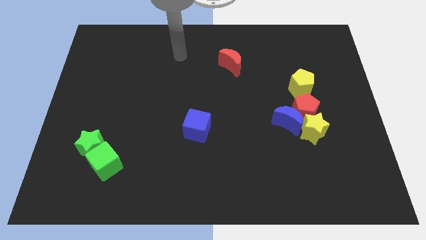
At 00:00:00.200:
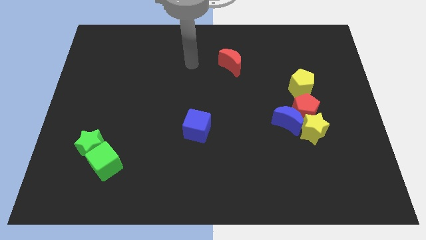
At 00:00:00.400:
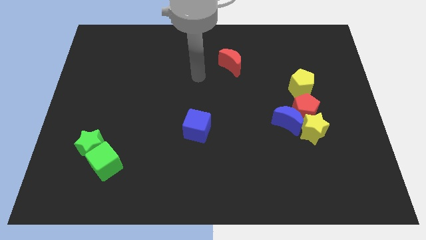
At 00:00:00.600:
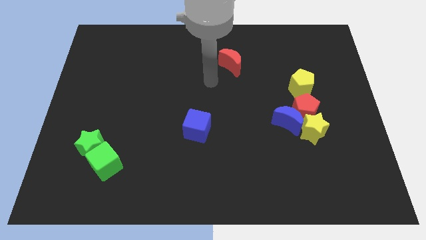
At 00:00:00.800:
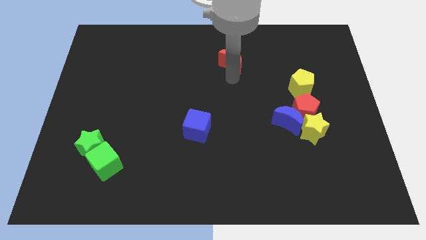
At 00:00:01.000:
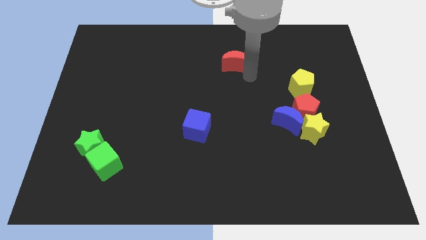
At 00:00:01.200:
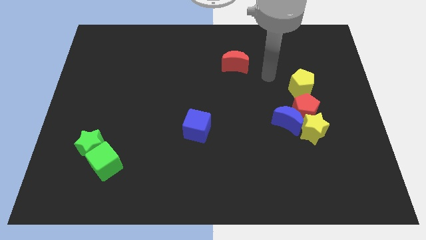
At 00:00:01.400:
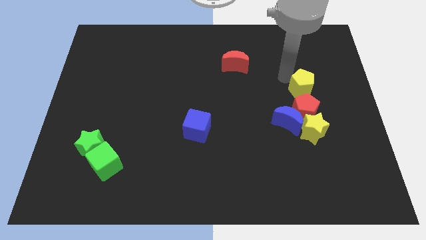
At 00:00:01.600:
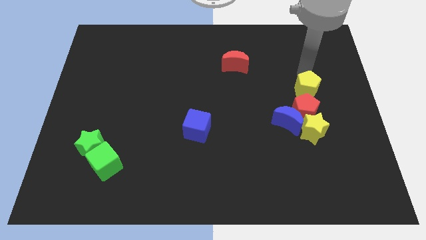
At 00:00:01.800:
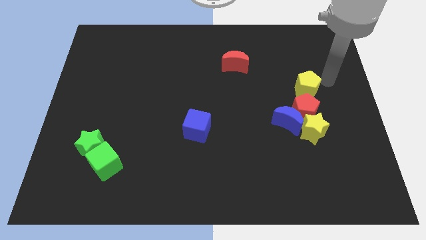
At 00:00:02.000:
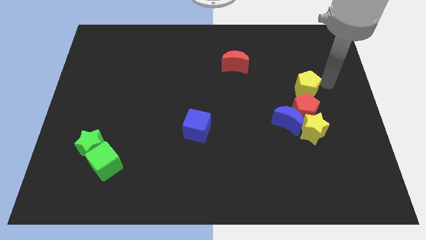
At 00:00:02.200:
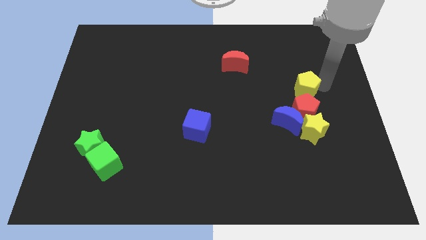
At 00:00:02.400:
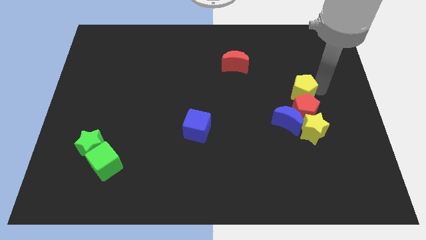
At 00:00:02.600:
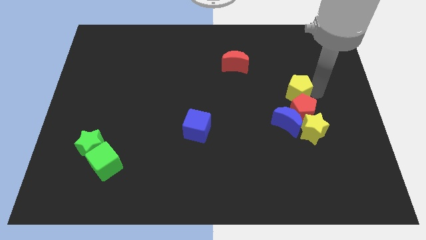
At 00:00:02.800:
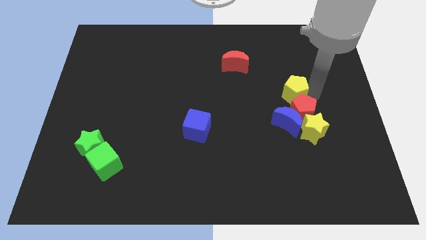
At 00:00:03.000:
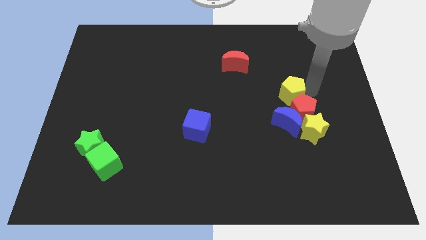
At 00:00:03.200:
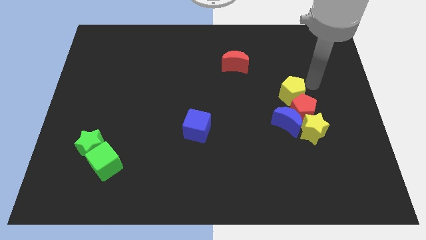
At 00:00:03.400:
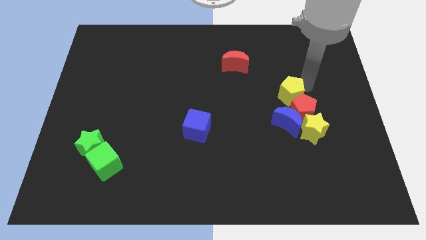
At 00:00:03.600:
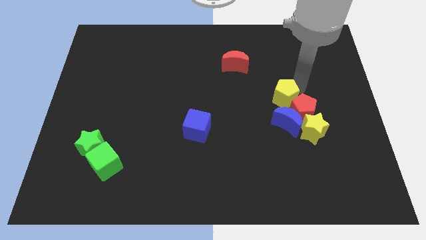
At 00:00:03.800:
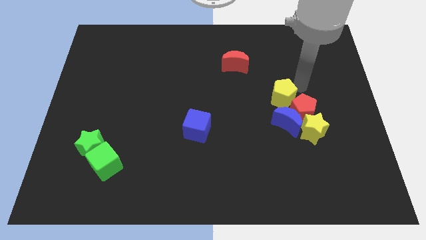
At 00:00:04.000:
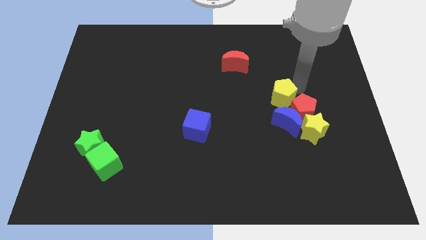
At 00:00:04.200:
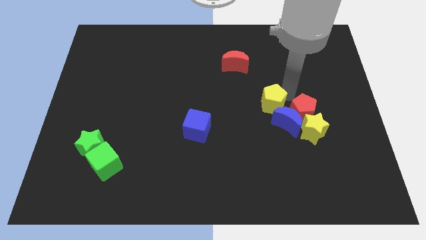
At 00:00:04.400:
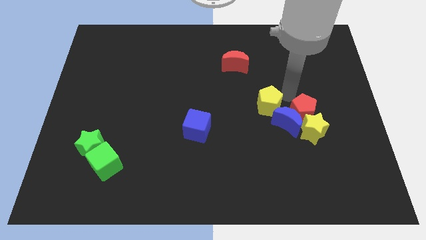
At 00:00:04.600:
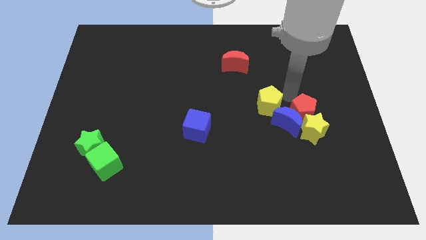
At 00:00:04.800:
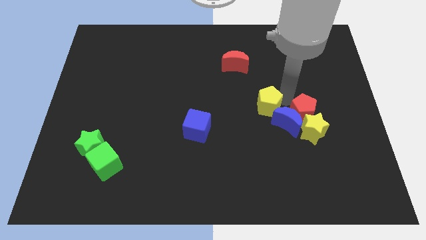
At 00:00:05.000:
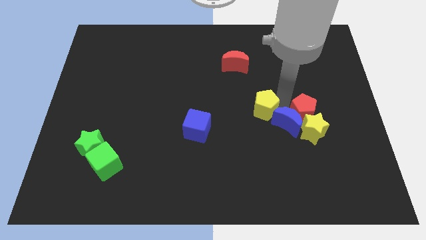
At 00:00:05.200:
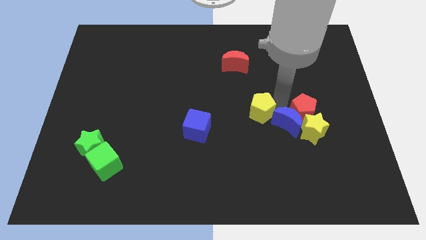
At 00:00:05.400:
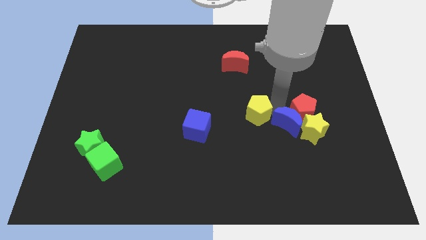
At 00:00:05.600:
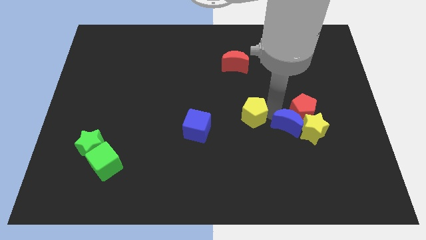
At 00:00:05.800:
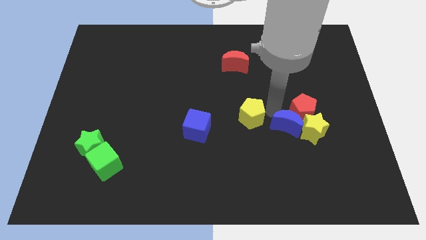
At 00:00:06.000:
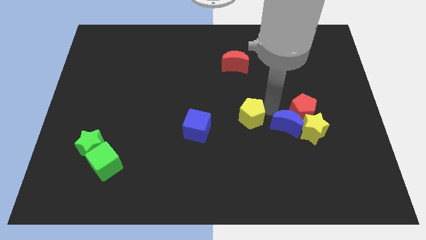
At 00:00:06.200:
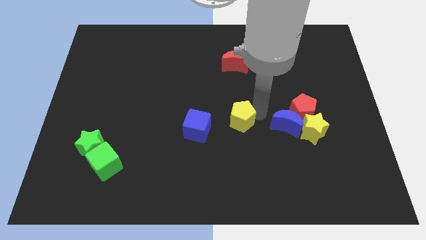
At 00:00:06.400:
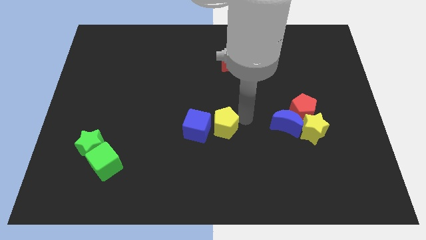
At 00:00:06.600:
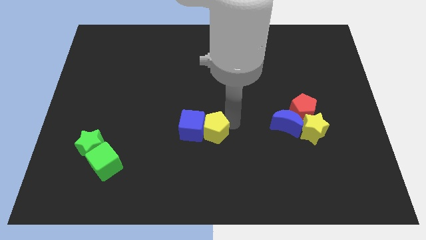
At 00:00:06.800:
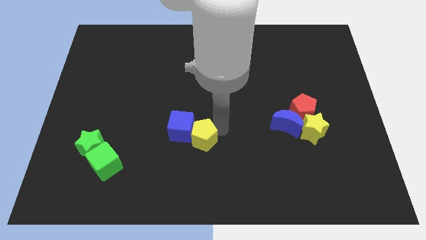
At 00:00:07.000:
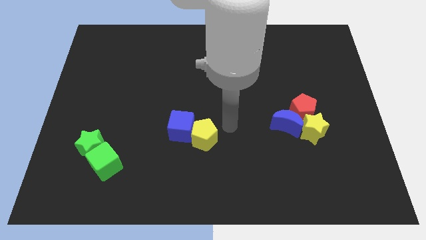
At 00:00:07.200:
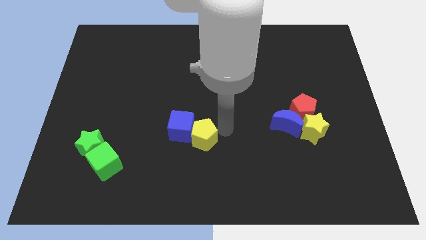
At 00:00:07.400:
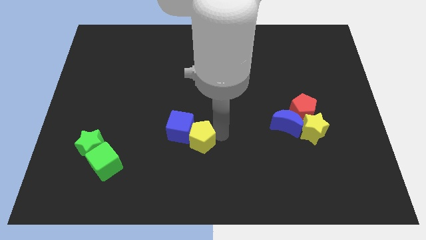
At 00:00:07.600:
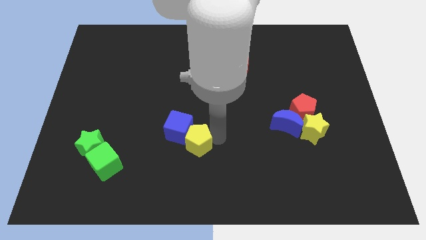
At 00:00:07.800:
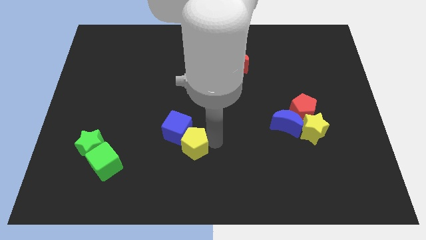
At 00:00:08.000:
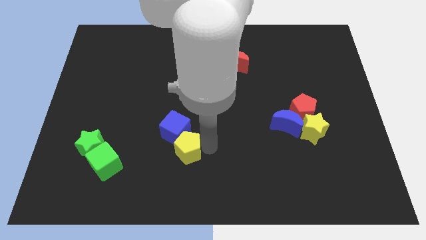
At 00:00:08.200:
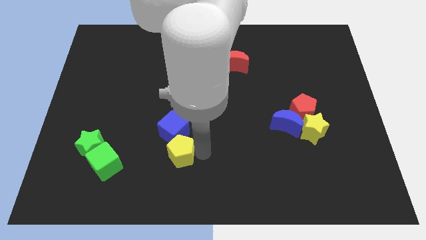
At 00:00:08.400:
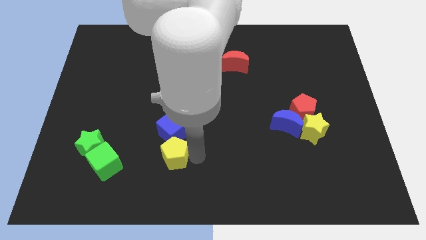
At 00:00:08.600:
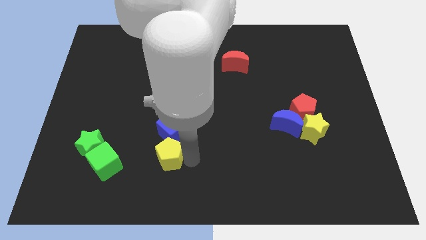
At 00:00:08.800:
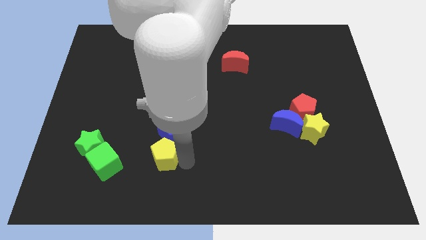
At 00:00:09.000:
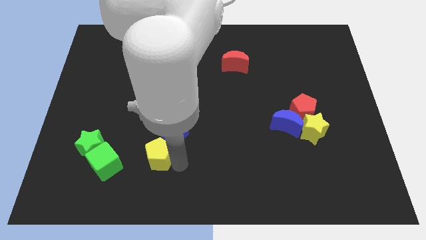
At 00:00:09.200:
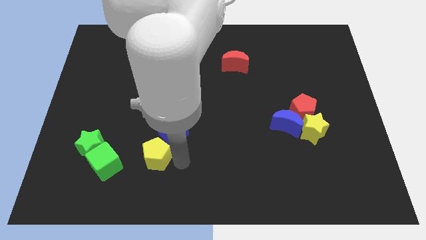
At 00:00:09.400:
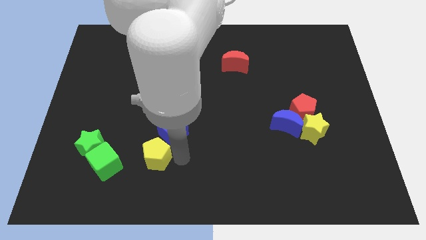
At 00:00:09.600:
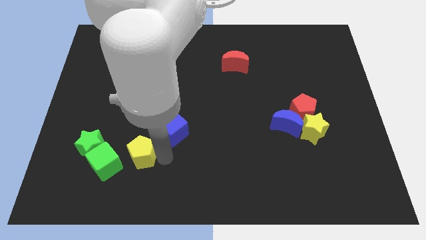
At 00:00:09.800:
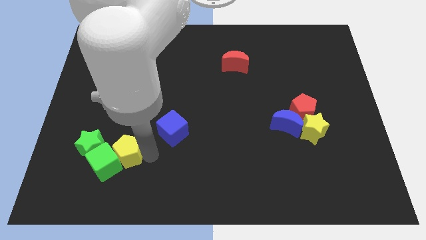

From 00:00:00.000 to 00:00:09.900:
put the yellow pentagon next to the green cube

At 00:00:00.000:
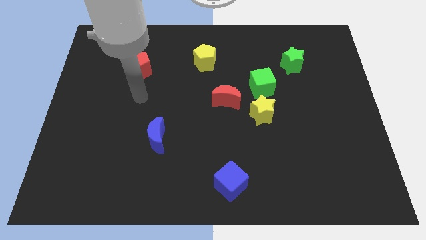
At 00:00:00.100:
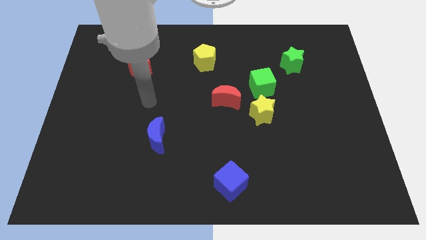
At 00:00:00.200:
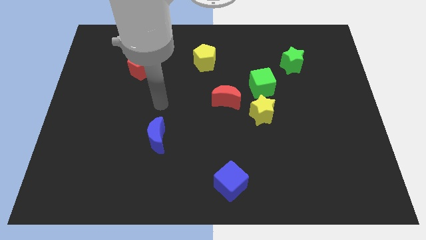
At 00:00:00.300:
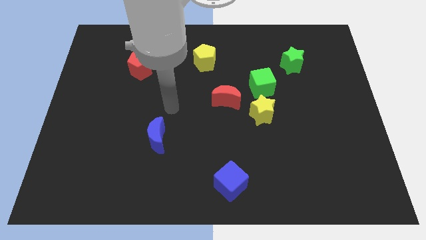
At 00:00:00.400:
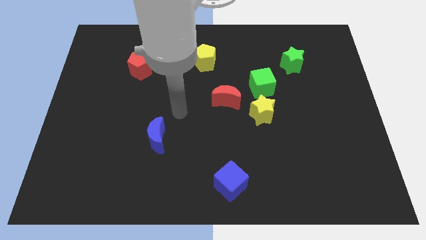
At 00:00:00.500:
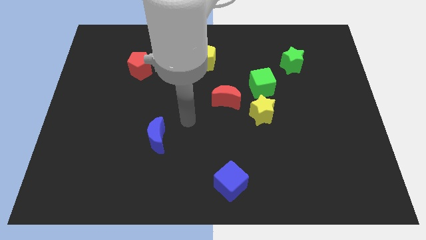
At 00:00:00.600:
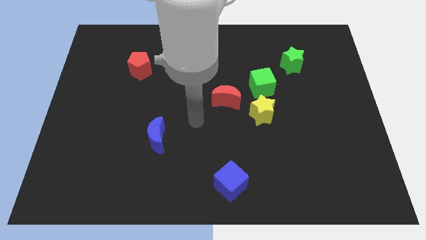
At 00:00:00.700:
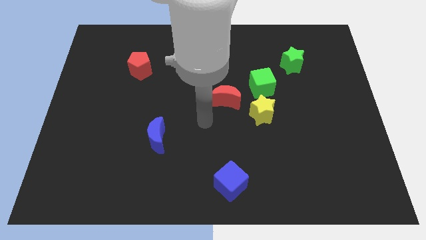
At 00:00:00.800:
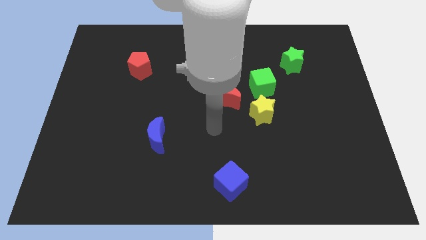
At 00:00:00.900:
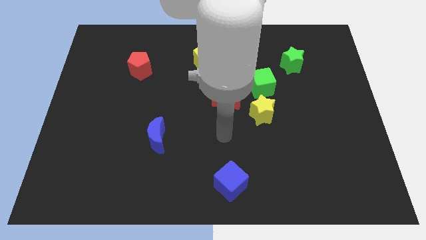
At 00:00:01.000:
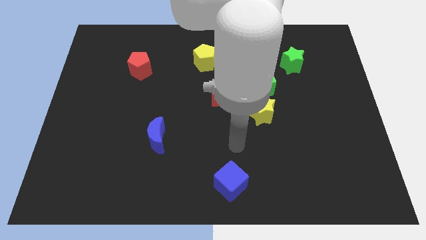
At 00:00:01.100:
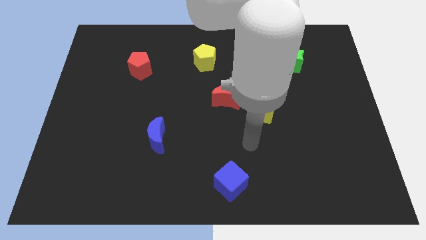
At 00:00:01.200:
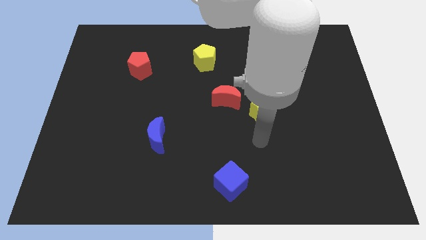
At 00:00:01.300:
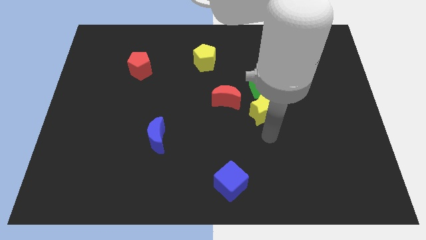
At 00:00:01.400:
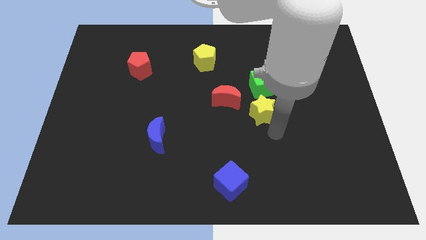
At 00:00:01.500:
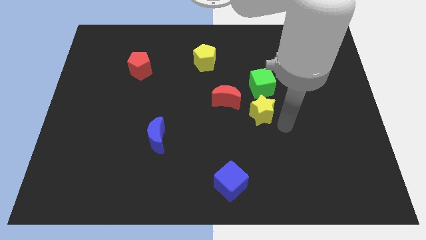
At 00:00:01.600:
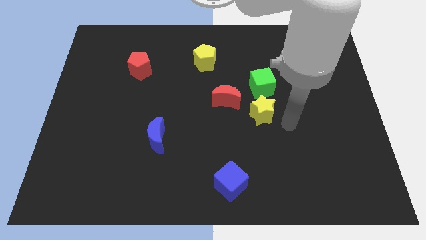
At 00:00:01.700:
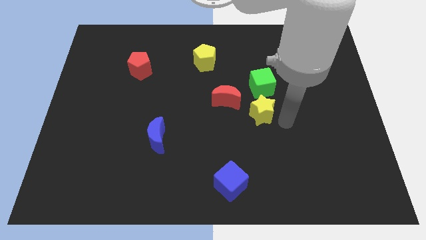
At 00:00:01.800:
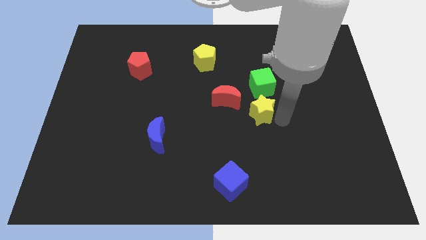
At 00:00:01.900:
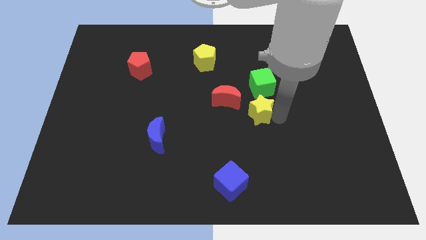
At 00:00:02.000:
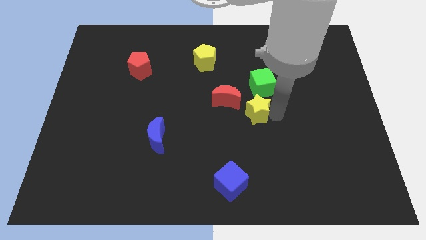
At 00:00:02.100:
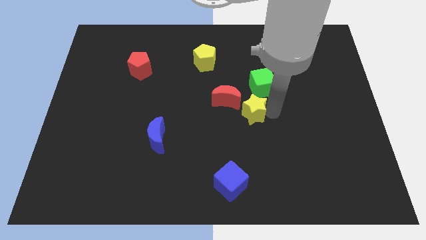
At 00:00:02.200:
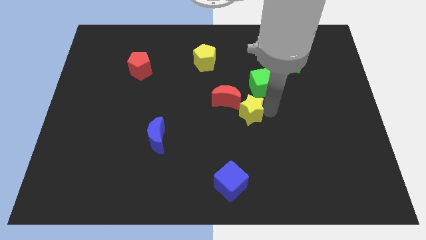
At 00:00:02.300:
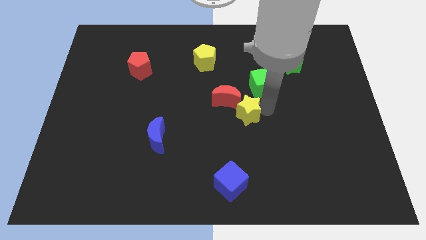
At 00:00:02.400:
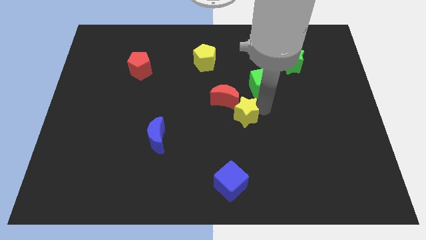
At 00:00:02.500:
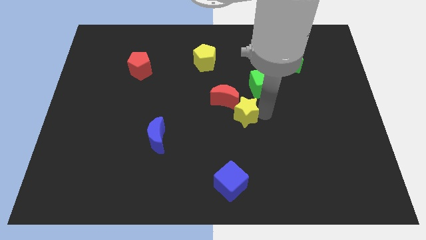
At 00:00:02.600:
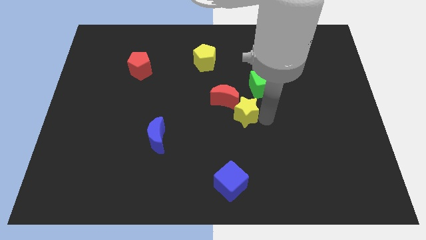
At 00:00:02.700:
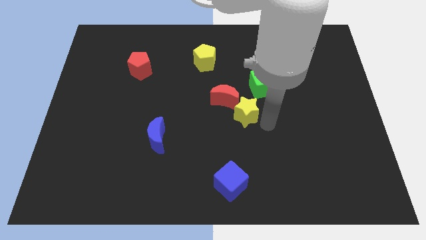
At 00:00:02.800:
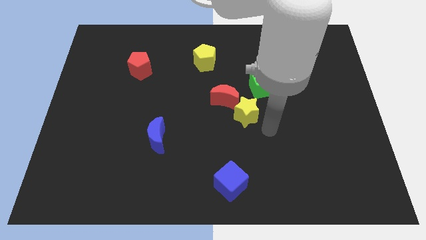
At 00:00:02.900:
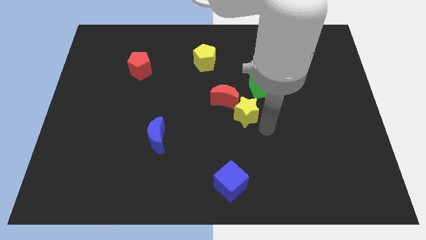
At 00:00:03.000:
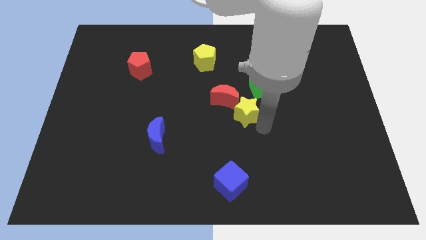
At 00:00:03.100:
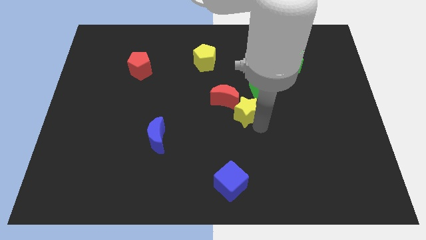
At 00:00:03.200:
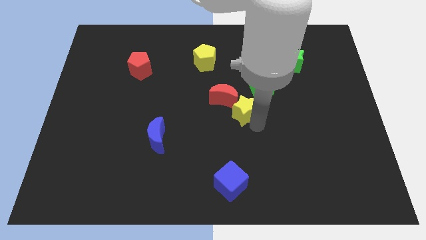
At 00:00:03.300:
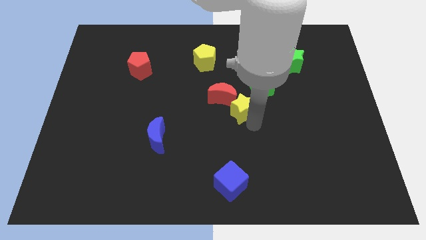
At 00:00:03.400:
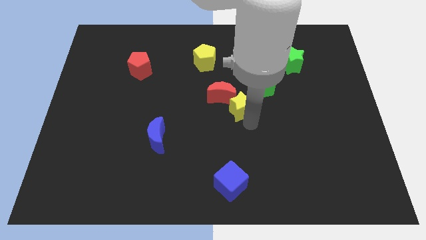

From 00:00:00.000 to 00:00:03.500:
push the yellow star close to the red moon
